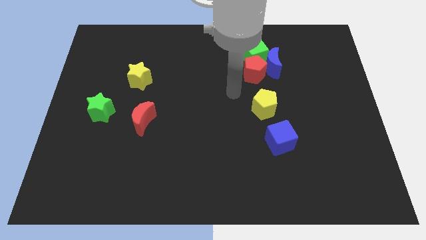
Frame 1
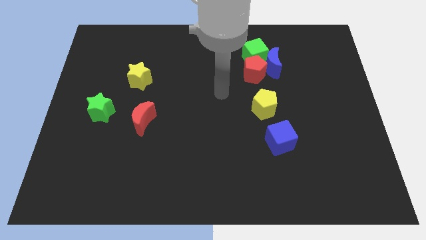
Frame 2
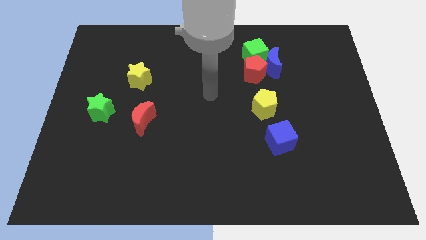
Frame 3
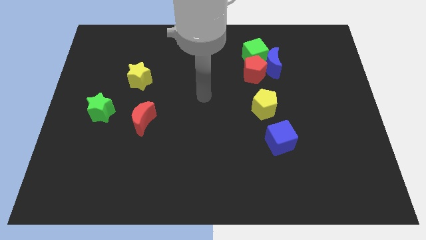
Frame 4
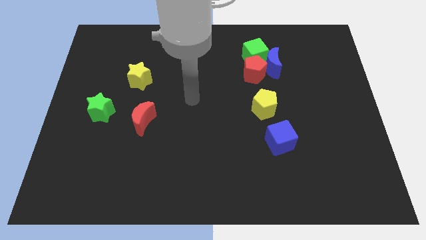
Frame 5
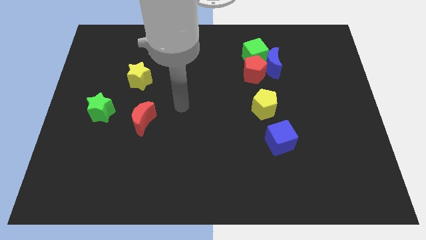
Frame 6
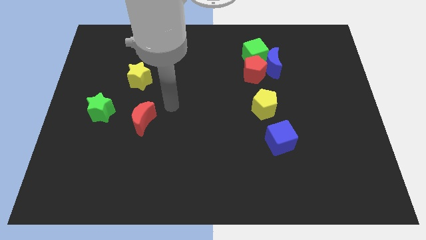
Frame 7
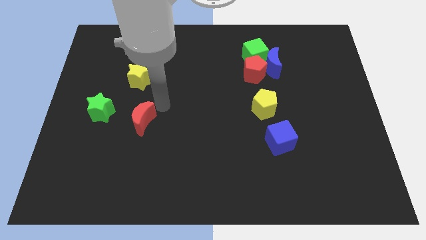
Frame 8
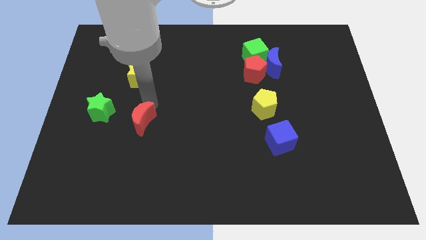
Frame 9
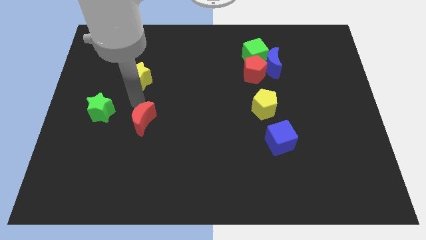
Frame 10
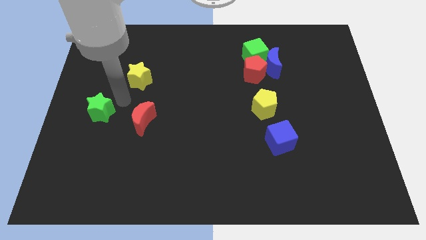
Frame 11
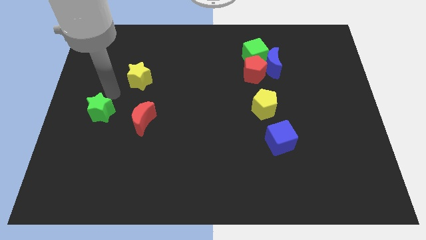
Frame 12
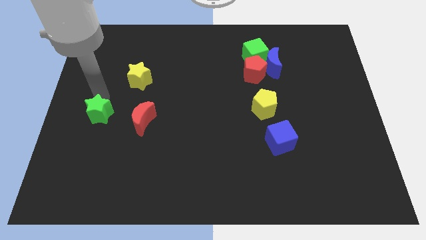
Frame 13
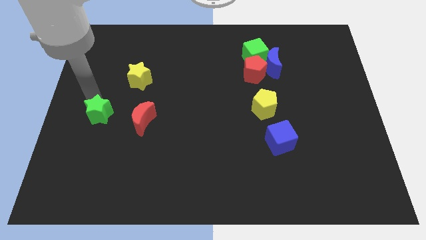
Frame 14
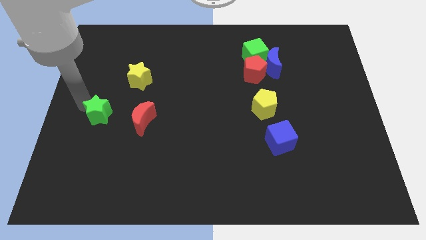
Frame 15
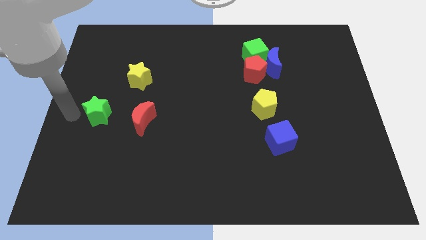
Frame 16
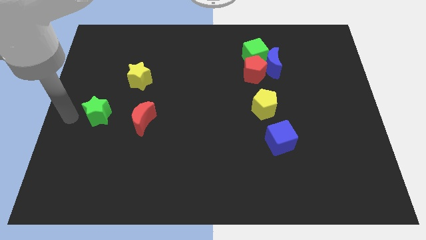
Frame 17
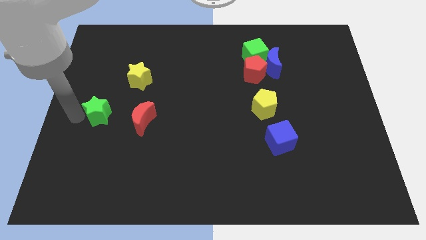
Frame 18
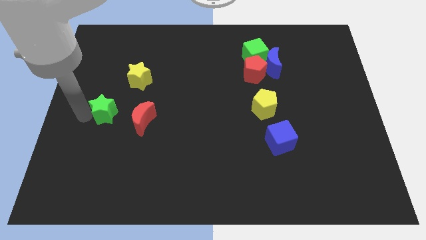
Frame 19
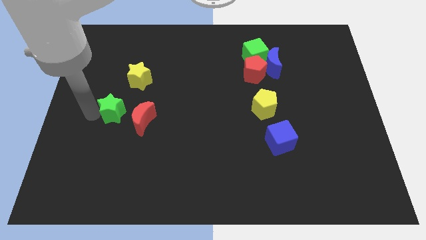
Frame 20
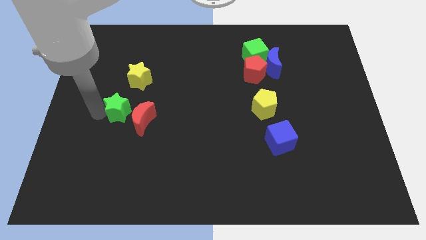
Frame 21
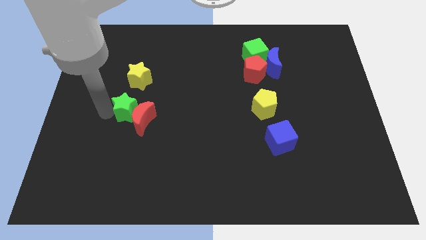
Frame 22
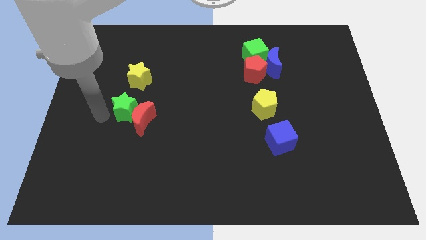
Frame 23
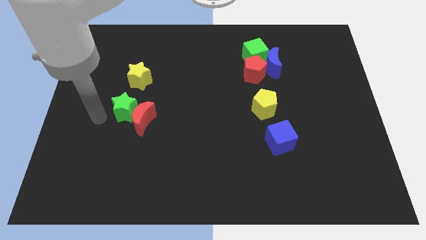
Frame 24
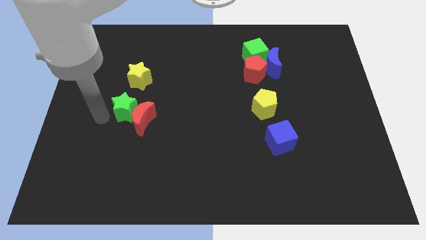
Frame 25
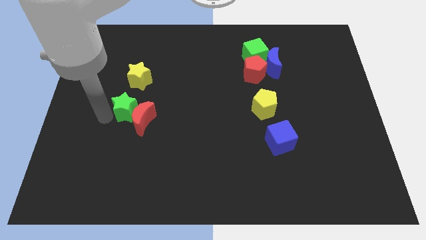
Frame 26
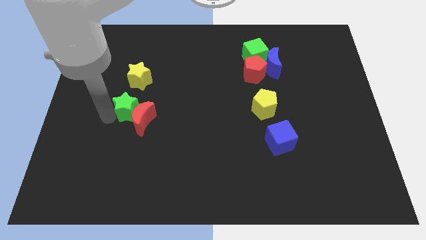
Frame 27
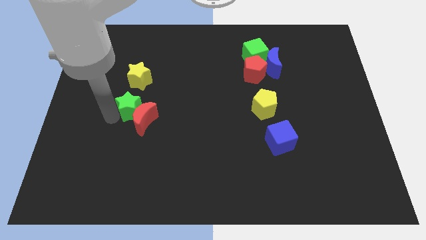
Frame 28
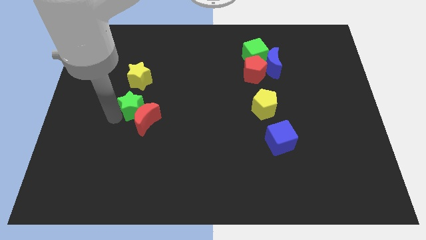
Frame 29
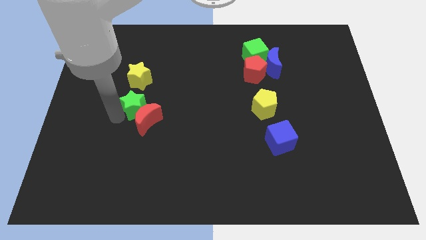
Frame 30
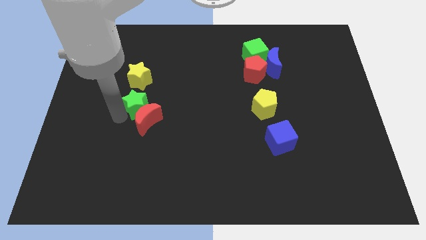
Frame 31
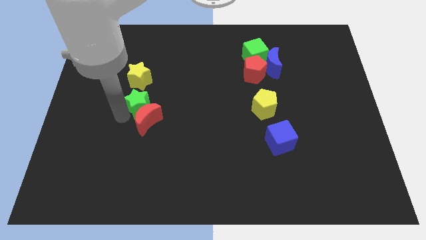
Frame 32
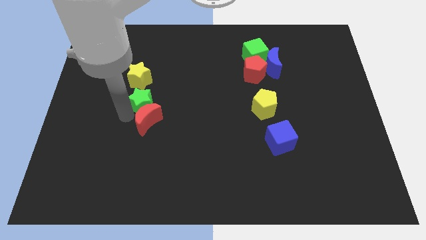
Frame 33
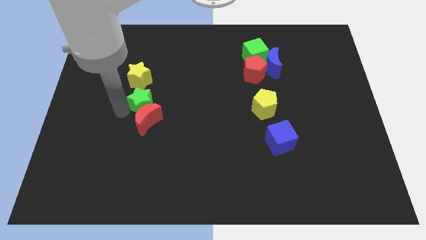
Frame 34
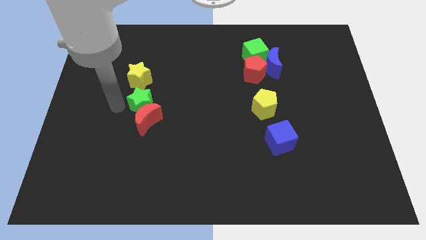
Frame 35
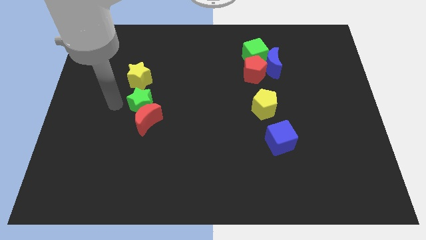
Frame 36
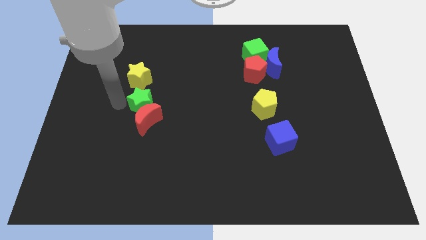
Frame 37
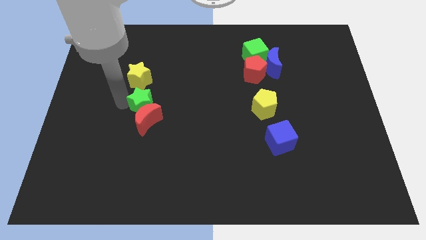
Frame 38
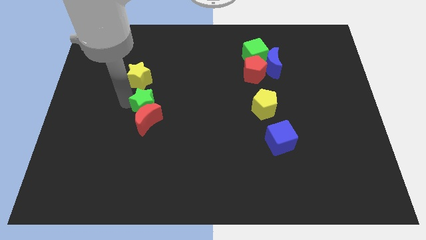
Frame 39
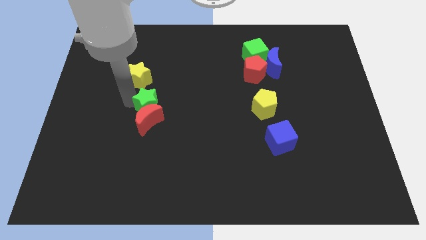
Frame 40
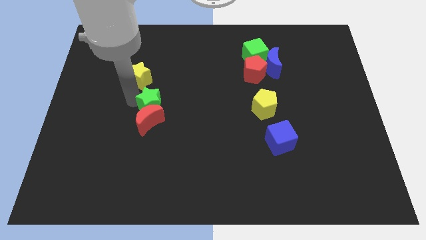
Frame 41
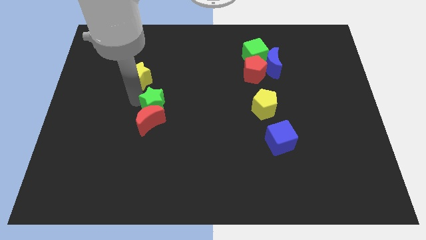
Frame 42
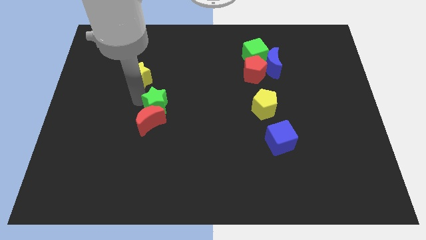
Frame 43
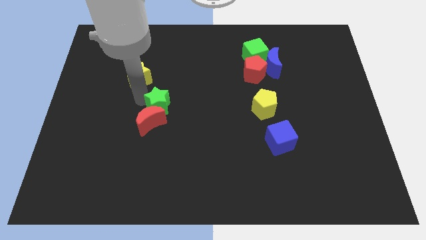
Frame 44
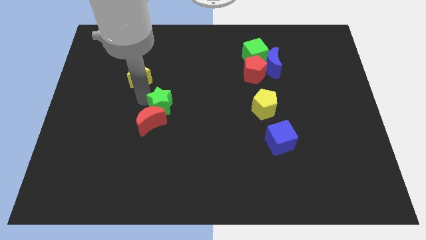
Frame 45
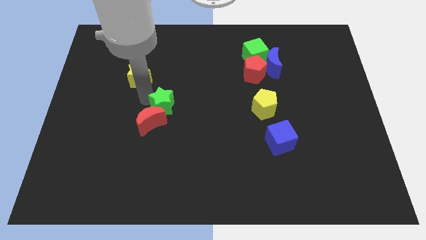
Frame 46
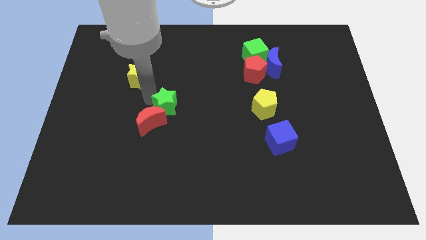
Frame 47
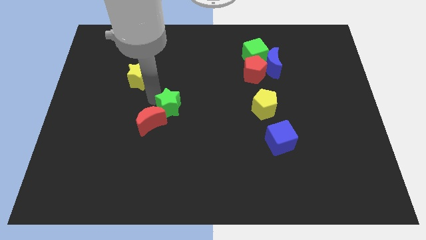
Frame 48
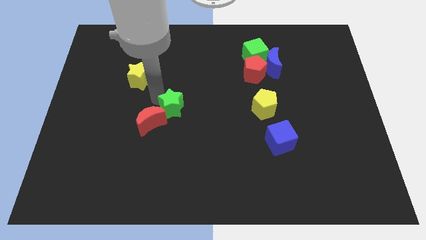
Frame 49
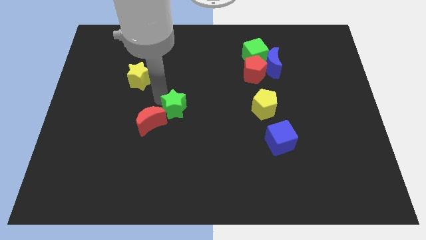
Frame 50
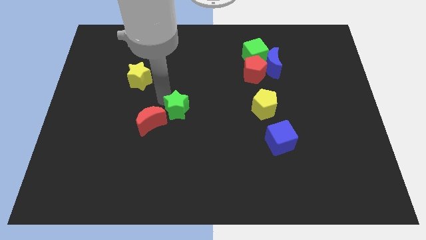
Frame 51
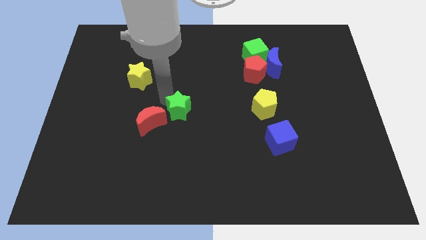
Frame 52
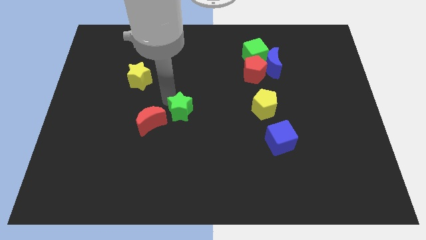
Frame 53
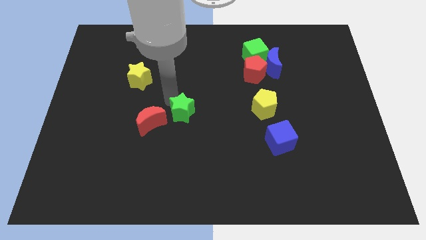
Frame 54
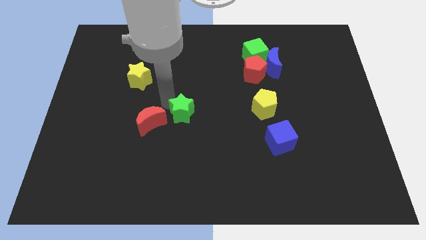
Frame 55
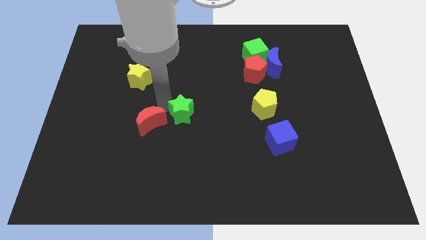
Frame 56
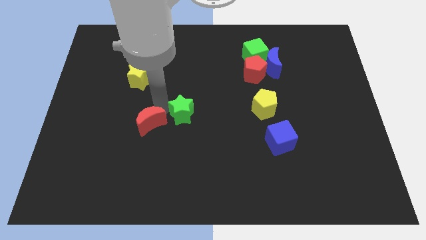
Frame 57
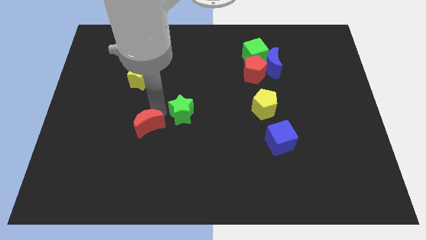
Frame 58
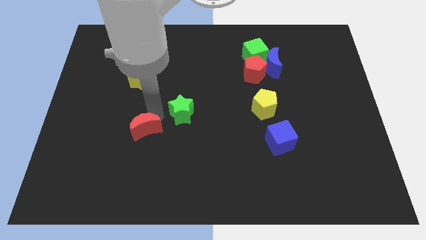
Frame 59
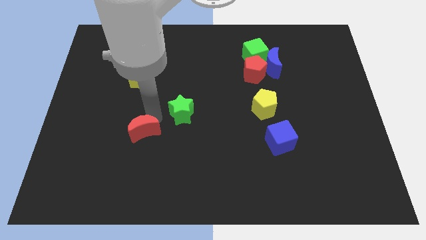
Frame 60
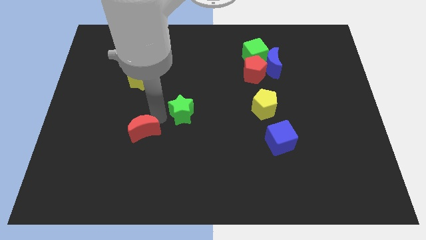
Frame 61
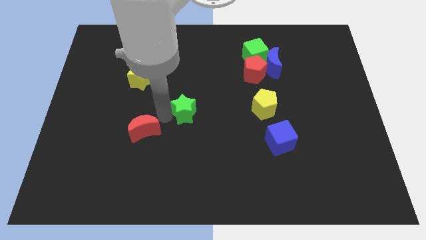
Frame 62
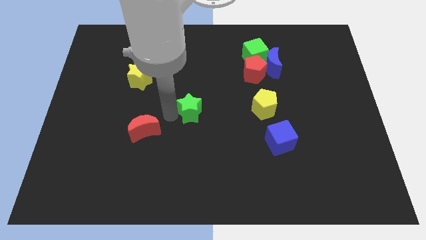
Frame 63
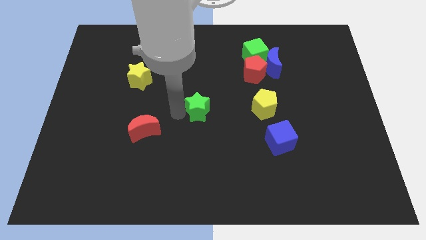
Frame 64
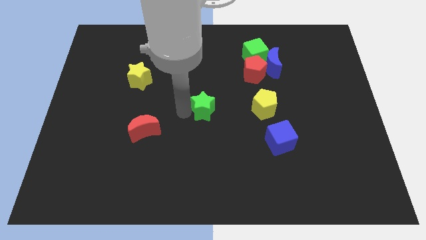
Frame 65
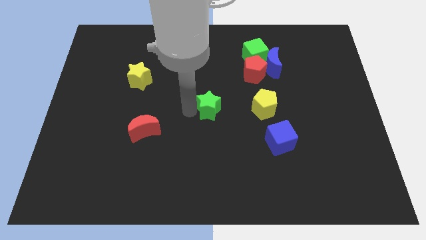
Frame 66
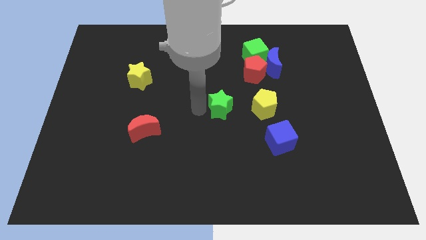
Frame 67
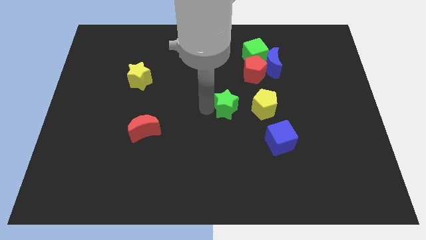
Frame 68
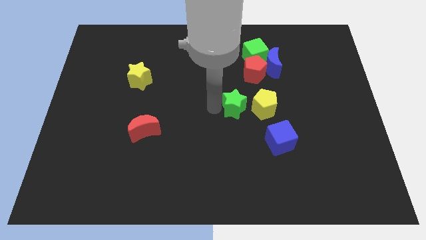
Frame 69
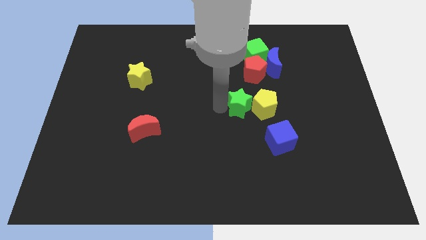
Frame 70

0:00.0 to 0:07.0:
push the green star close to the yellow pentagon
